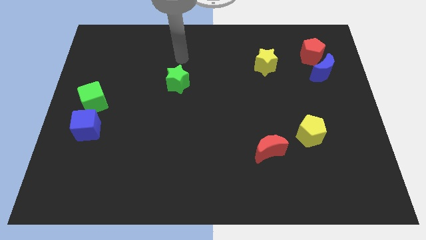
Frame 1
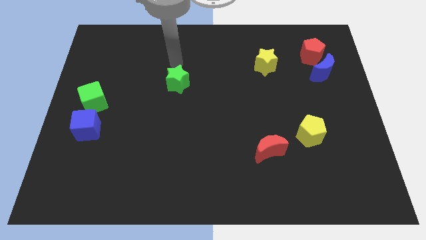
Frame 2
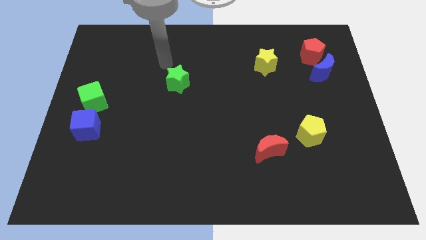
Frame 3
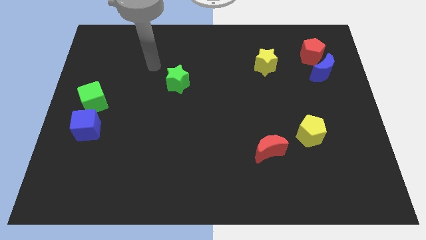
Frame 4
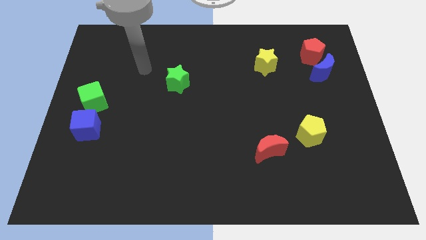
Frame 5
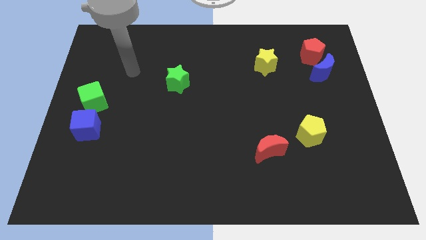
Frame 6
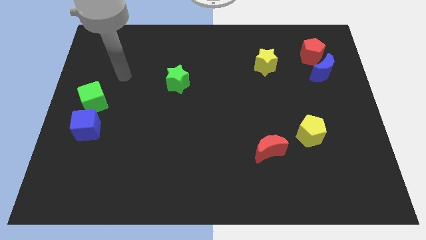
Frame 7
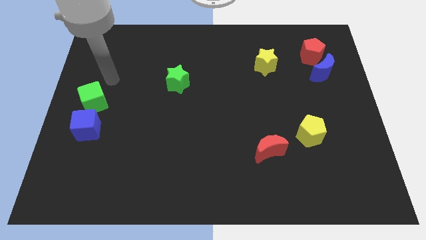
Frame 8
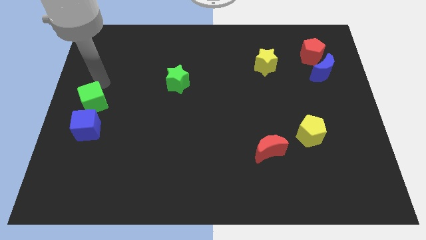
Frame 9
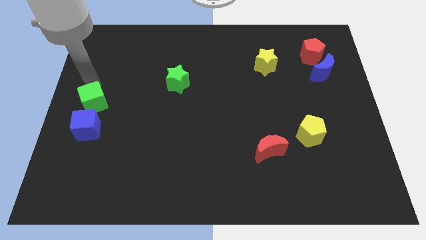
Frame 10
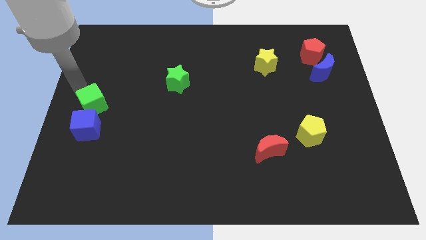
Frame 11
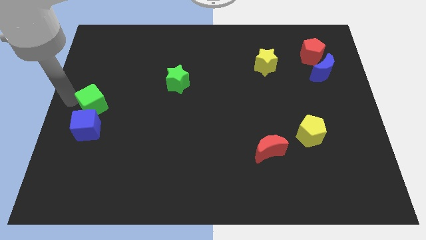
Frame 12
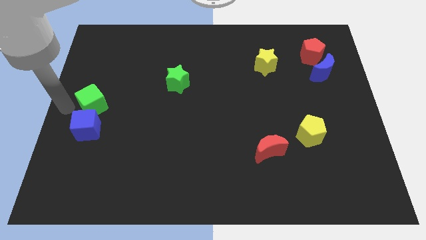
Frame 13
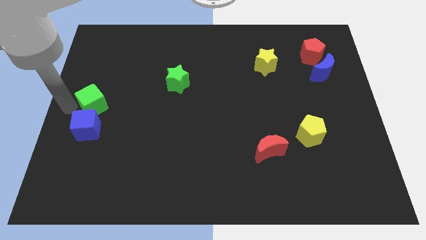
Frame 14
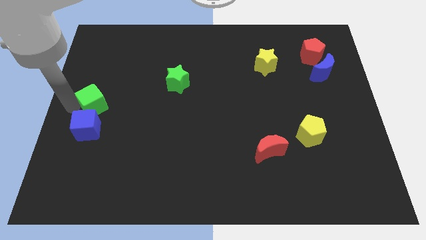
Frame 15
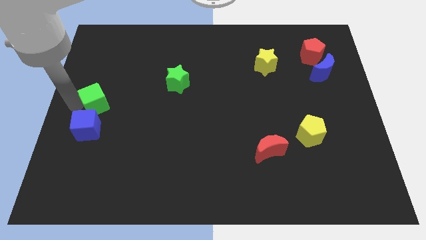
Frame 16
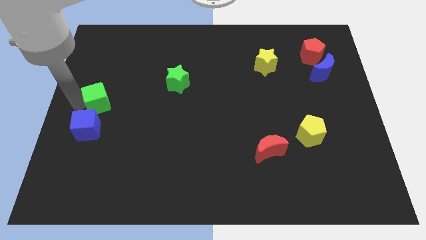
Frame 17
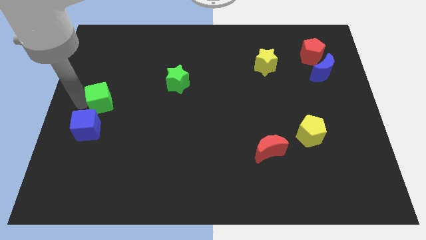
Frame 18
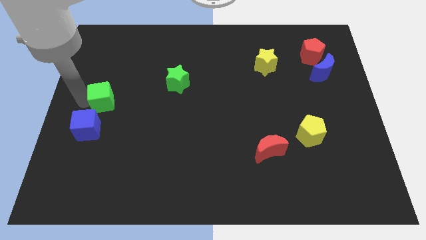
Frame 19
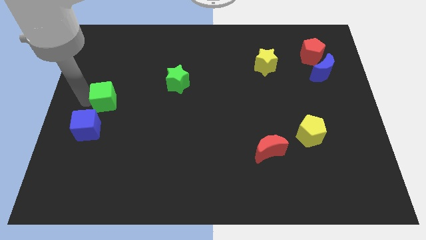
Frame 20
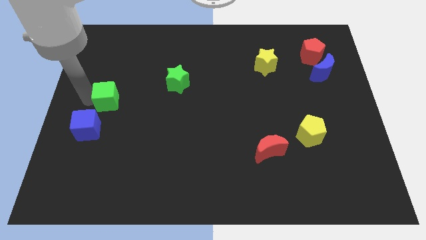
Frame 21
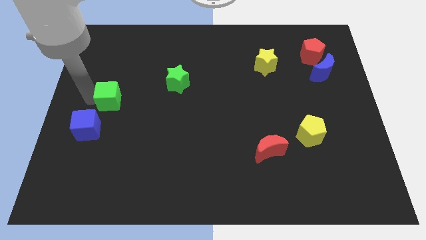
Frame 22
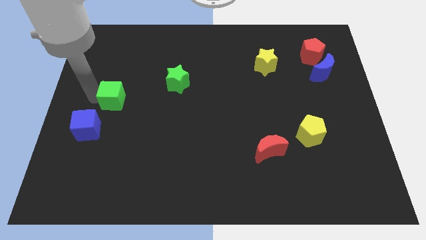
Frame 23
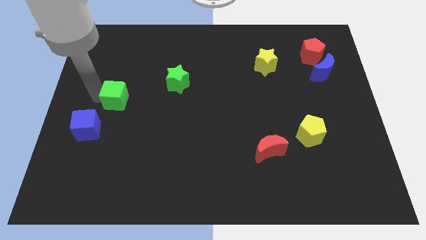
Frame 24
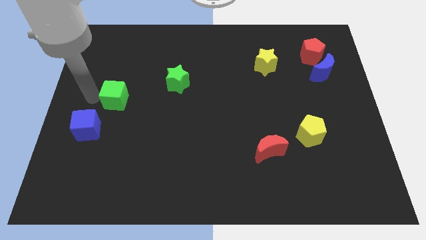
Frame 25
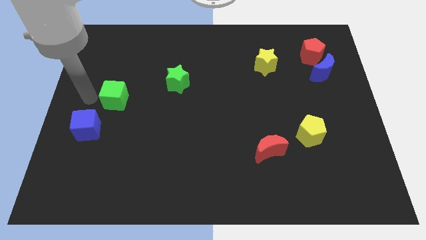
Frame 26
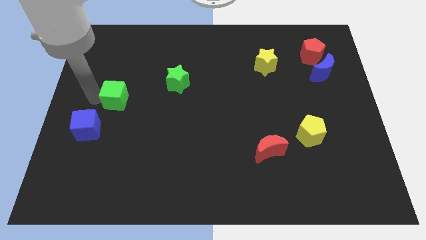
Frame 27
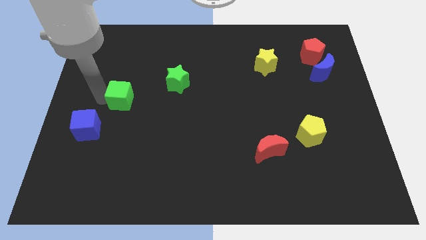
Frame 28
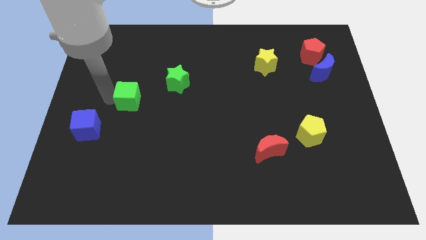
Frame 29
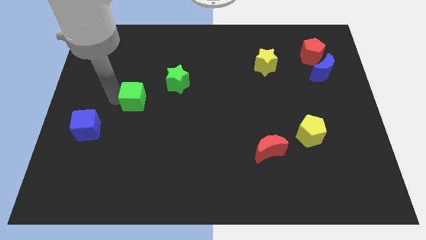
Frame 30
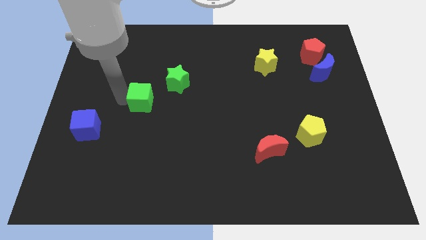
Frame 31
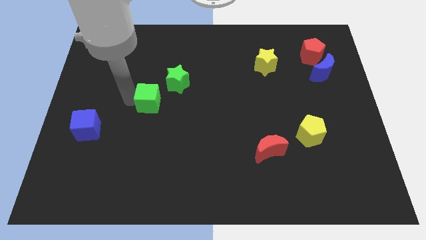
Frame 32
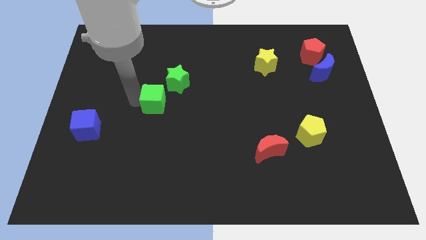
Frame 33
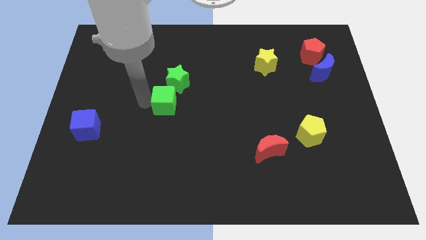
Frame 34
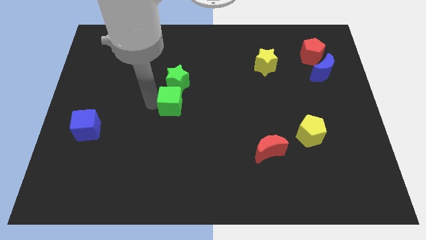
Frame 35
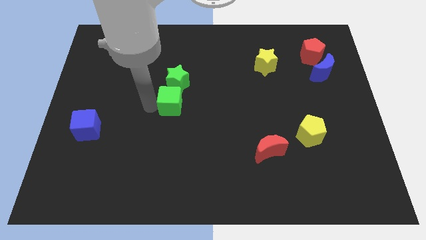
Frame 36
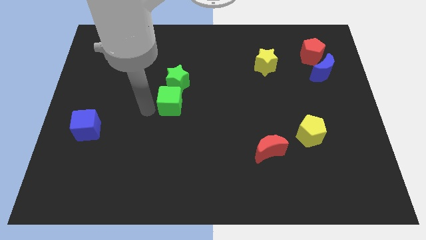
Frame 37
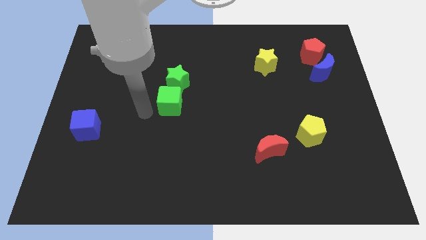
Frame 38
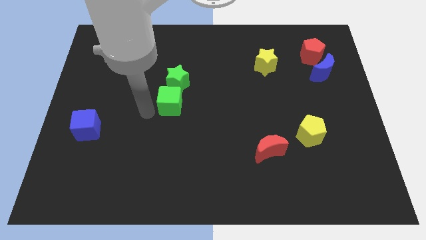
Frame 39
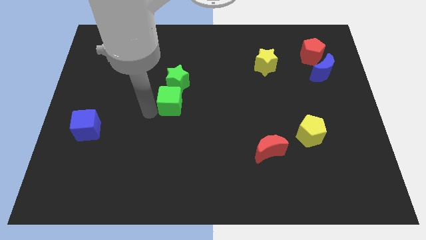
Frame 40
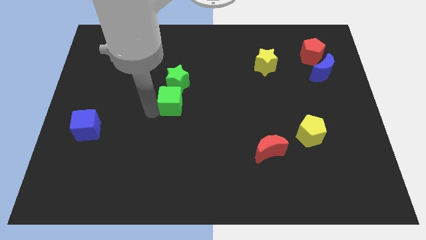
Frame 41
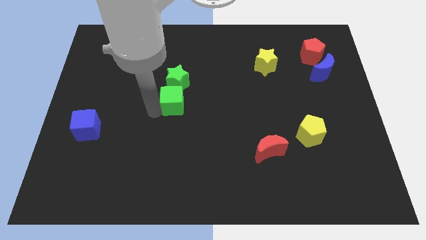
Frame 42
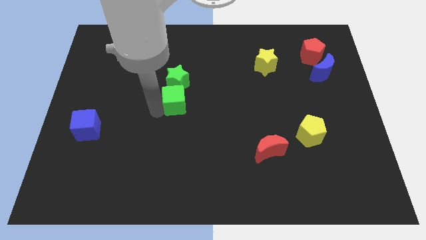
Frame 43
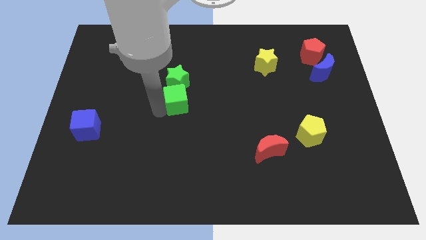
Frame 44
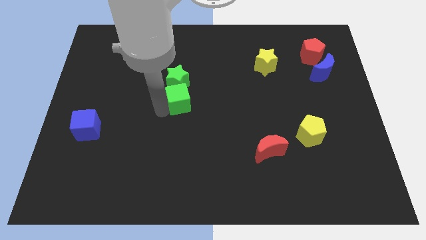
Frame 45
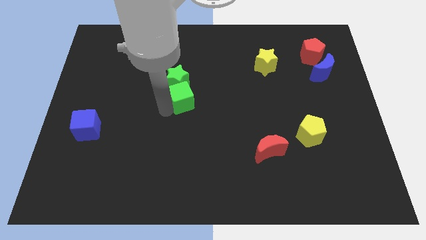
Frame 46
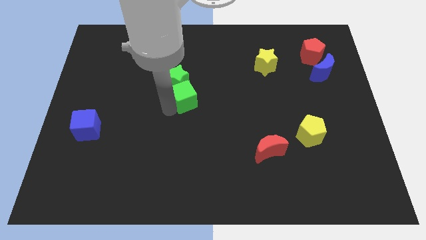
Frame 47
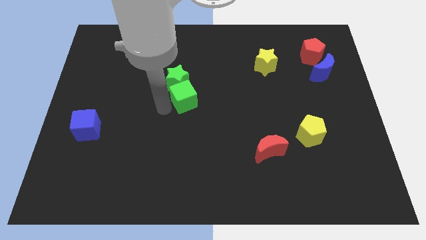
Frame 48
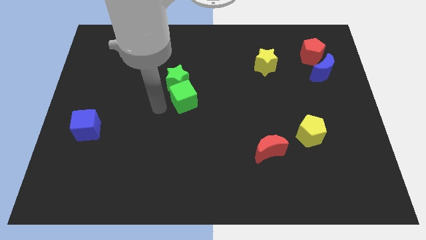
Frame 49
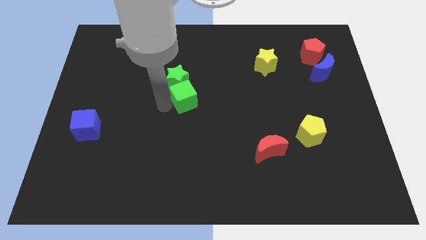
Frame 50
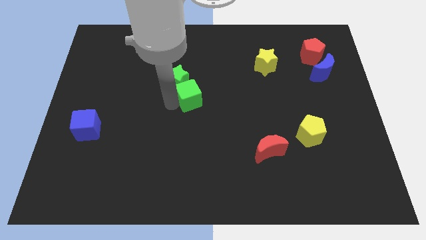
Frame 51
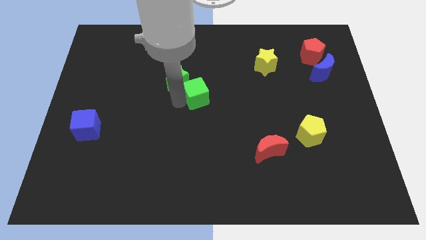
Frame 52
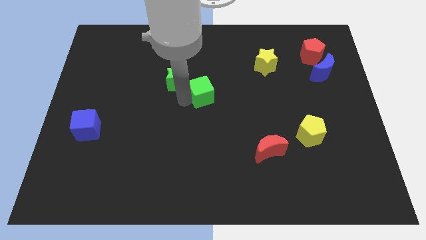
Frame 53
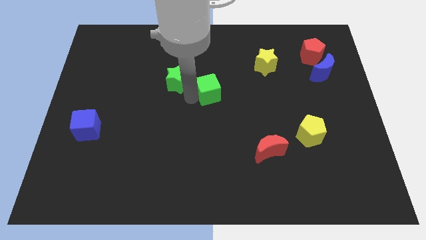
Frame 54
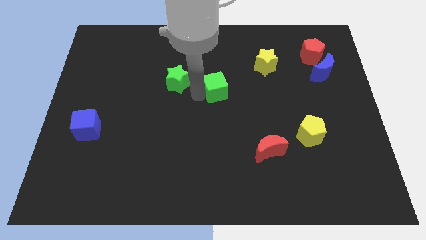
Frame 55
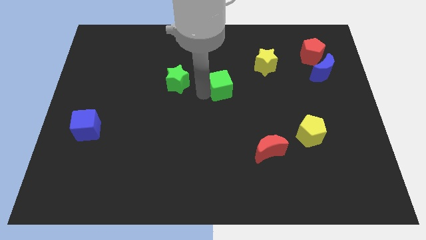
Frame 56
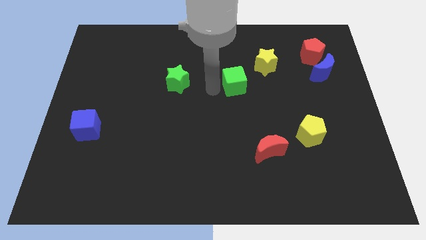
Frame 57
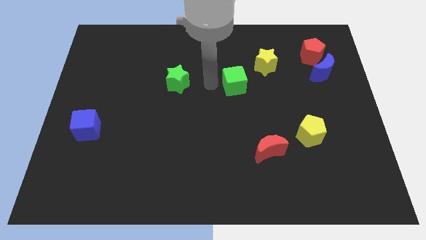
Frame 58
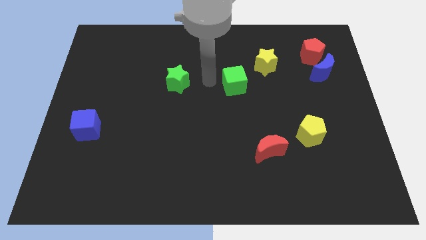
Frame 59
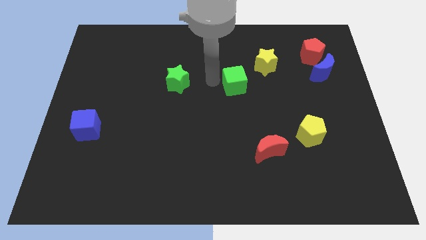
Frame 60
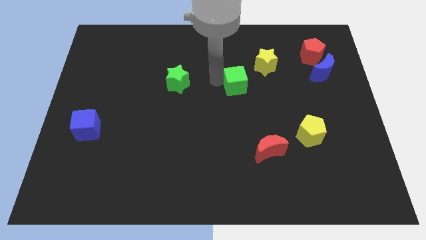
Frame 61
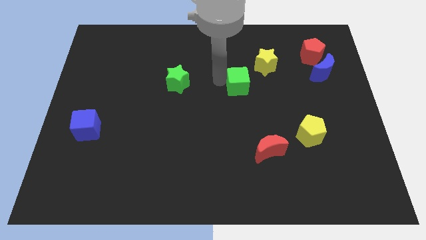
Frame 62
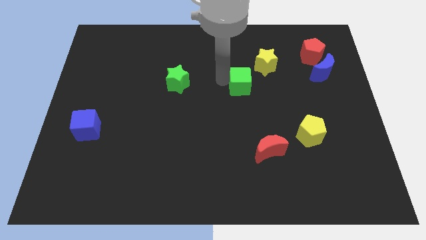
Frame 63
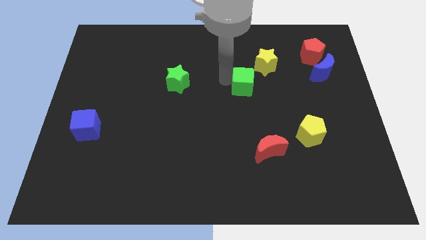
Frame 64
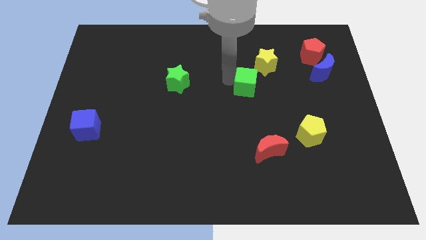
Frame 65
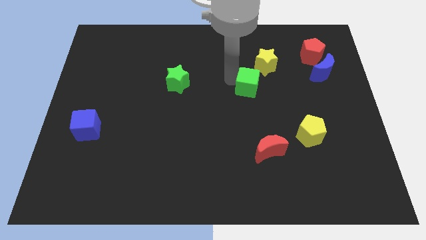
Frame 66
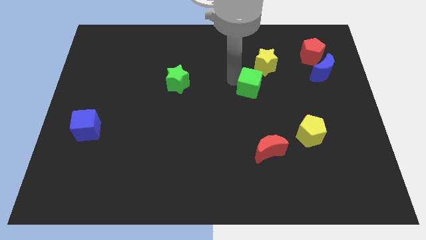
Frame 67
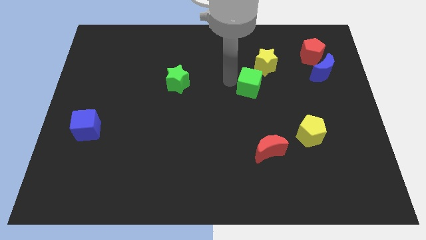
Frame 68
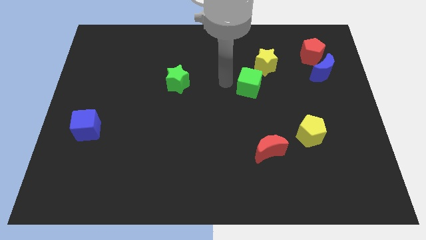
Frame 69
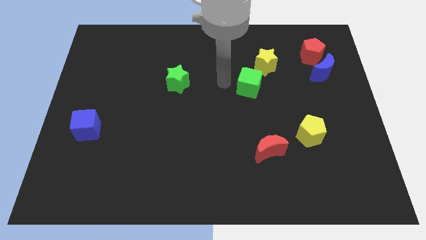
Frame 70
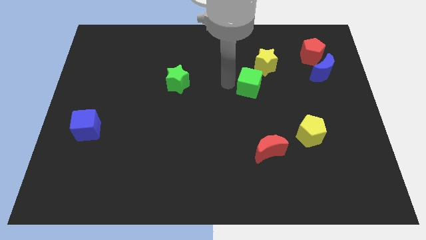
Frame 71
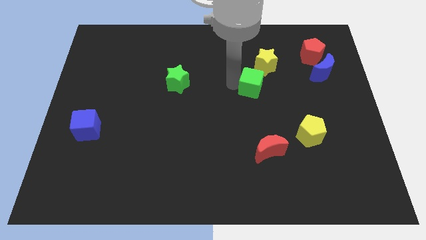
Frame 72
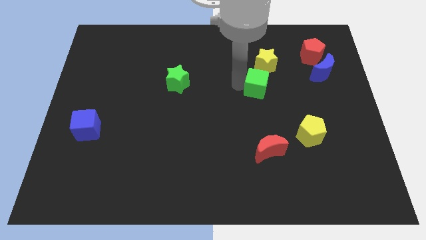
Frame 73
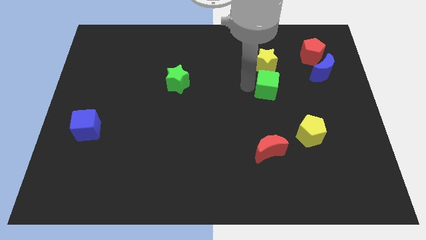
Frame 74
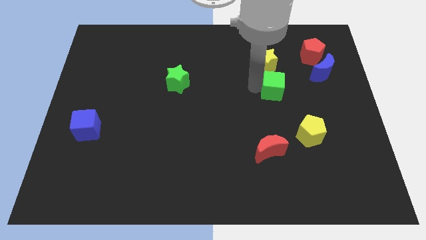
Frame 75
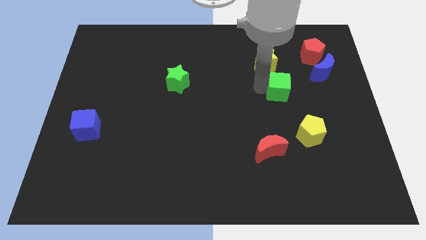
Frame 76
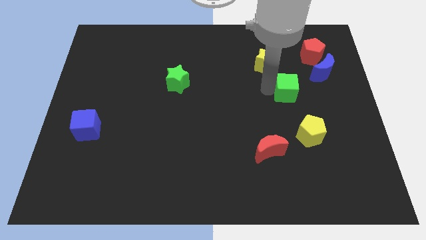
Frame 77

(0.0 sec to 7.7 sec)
push the green cube to the bottom left of the blue moon

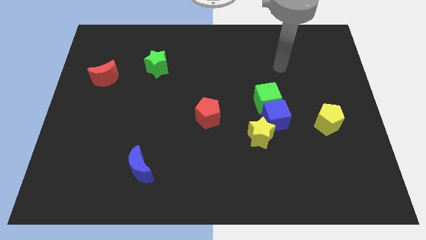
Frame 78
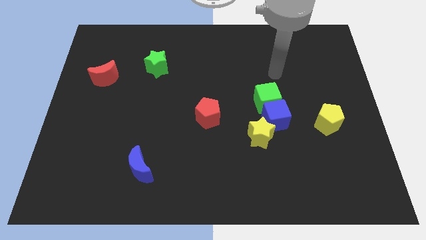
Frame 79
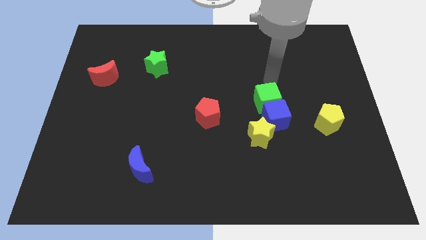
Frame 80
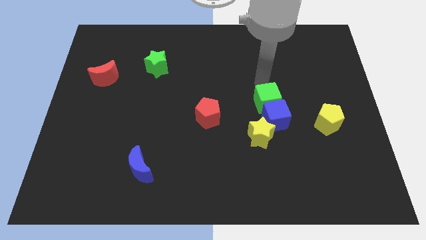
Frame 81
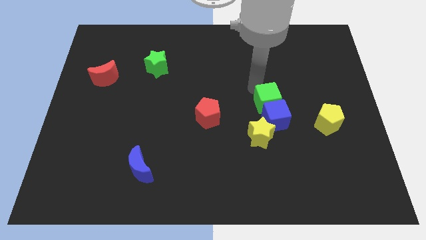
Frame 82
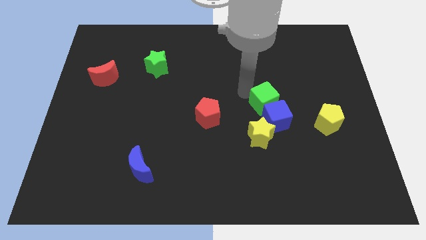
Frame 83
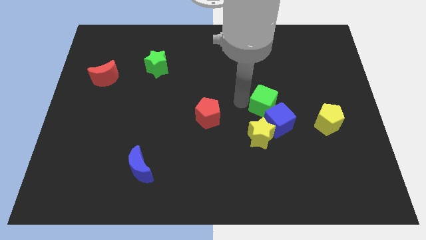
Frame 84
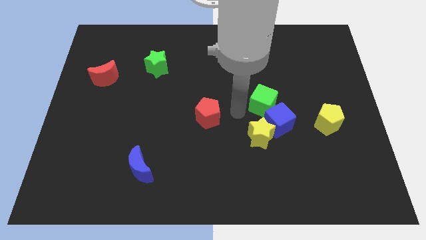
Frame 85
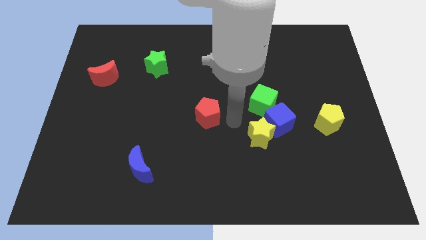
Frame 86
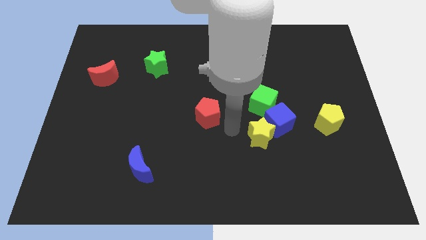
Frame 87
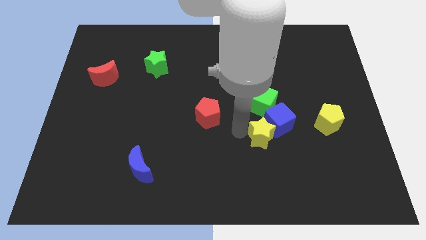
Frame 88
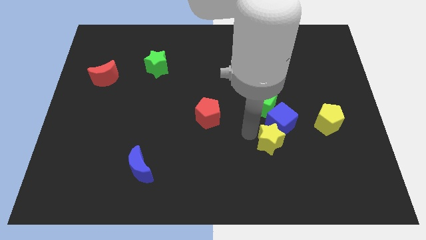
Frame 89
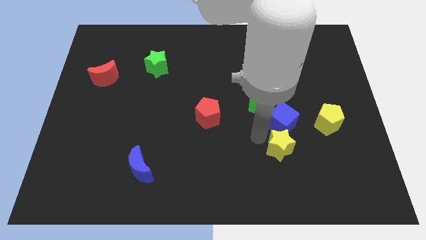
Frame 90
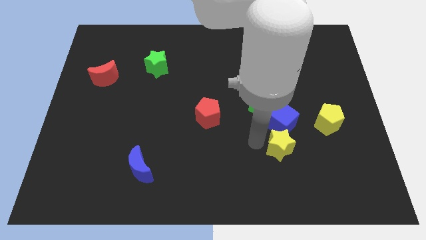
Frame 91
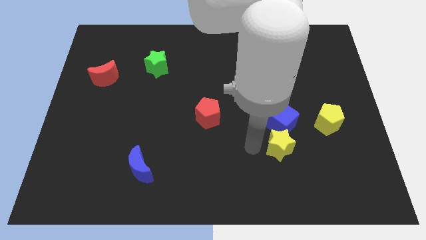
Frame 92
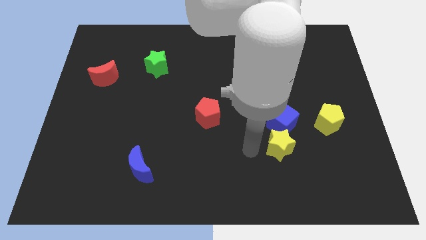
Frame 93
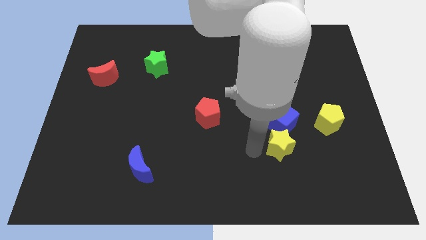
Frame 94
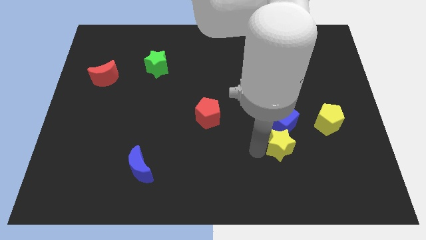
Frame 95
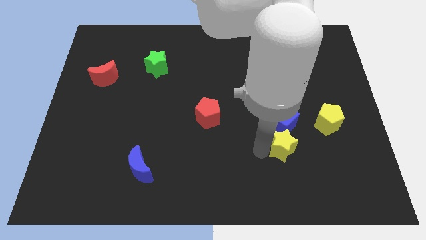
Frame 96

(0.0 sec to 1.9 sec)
put the yellow star diagonally down and to the right of the blue cube
